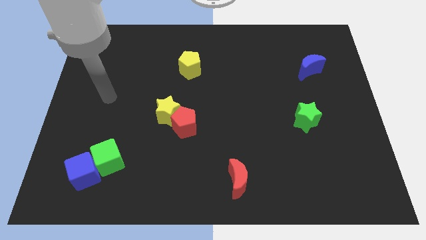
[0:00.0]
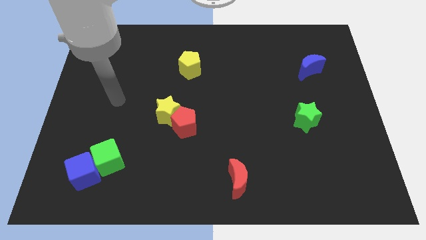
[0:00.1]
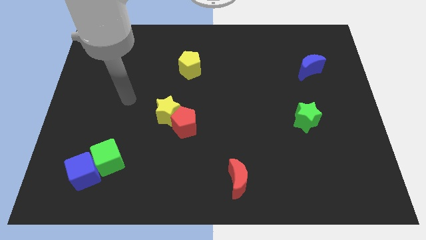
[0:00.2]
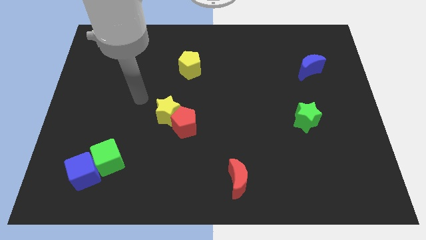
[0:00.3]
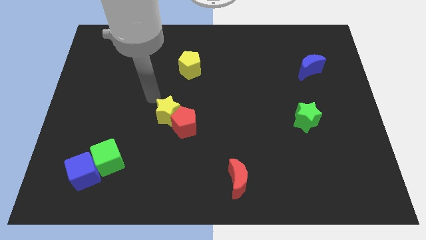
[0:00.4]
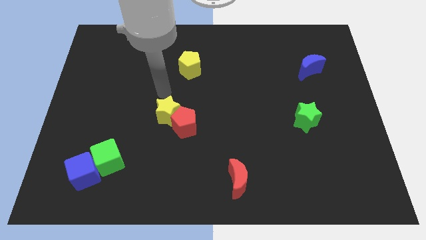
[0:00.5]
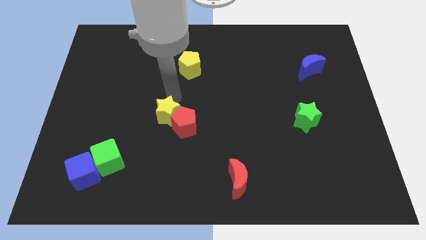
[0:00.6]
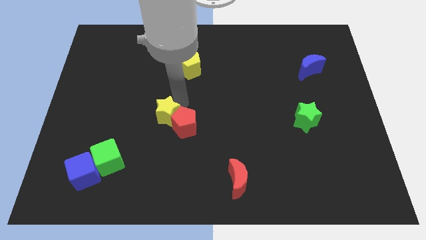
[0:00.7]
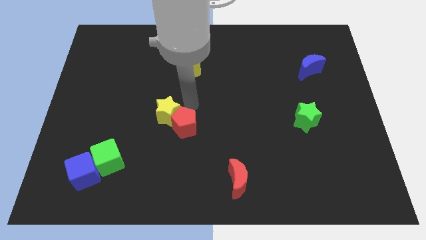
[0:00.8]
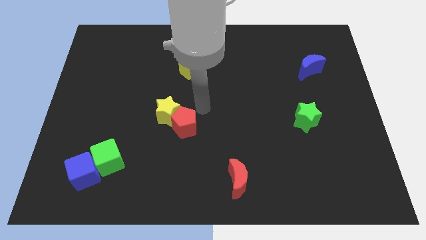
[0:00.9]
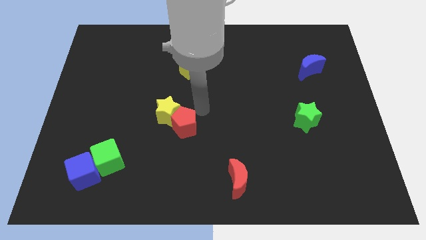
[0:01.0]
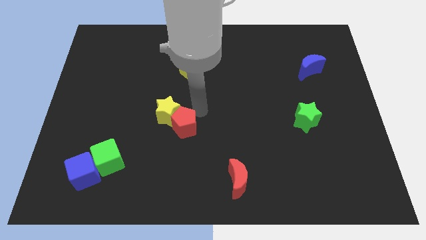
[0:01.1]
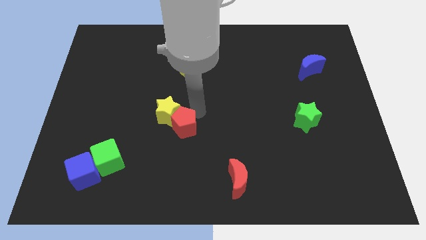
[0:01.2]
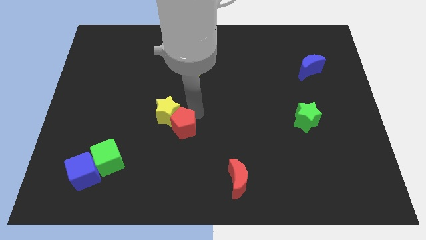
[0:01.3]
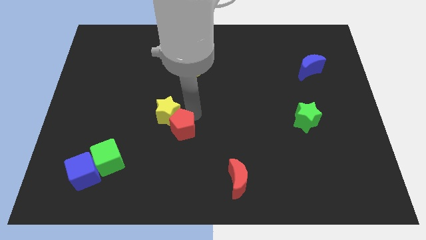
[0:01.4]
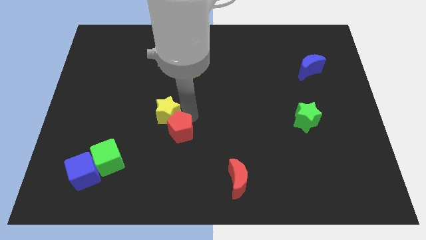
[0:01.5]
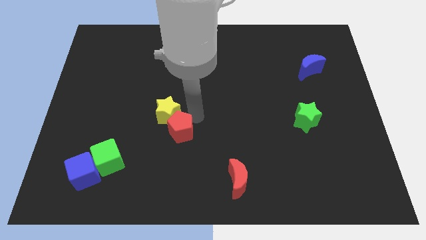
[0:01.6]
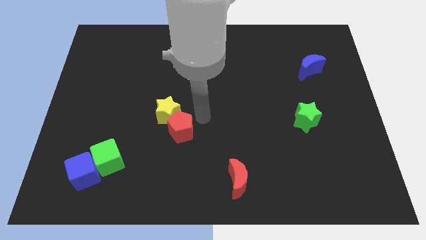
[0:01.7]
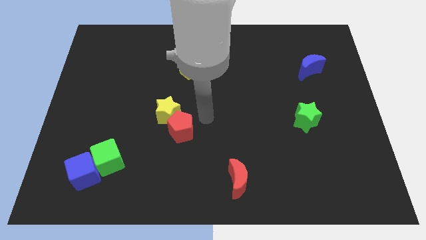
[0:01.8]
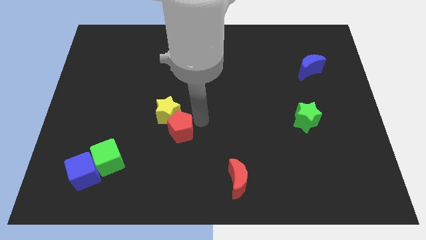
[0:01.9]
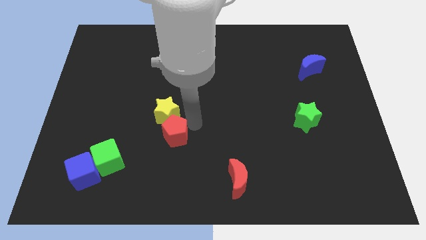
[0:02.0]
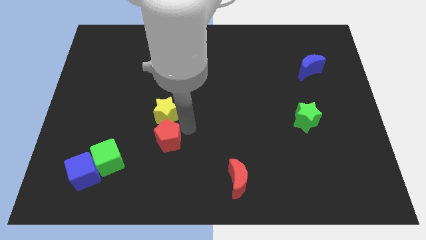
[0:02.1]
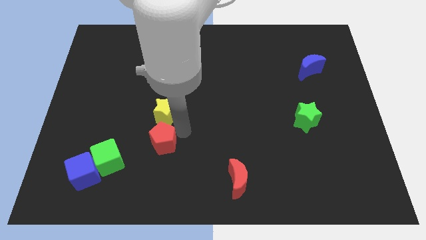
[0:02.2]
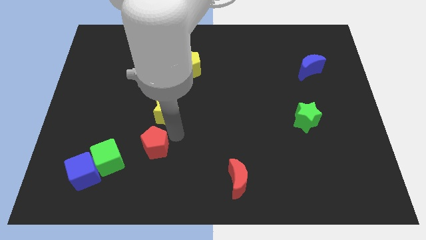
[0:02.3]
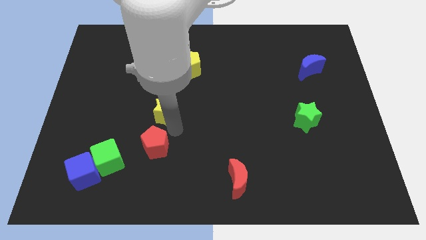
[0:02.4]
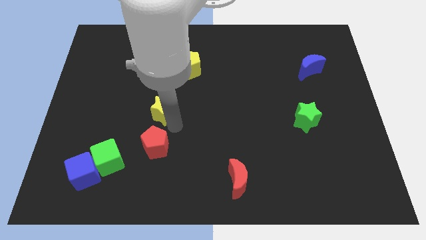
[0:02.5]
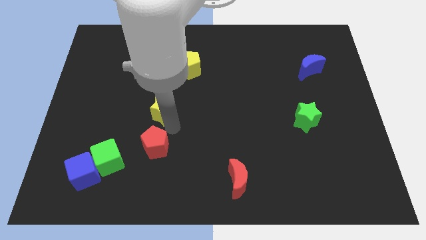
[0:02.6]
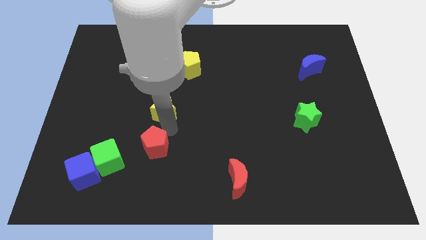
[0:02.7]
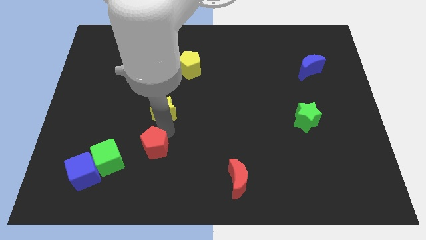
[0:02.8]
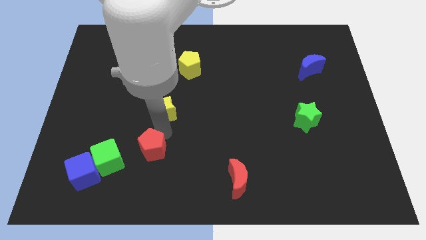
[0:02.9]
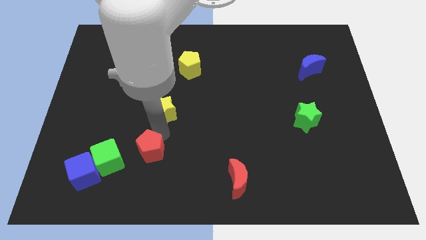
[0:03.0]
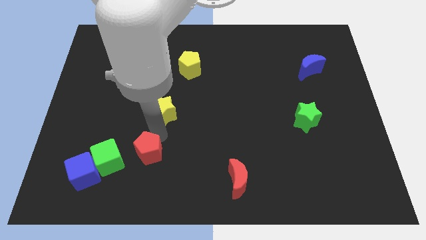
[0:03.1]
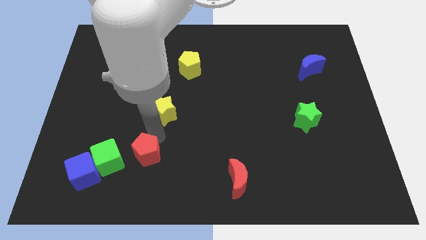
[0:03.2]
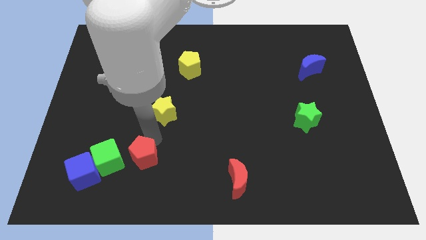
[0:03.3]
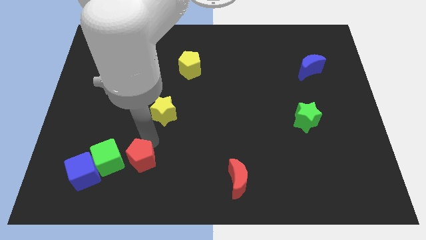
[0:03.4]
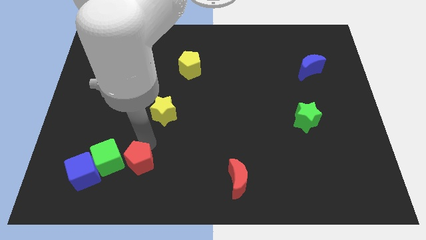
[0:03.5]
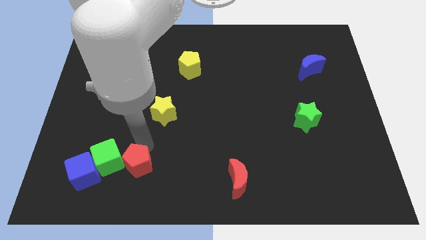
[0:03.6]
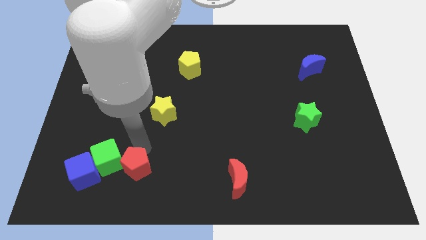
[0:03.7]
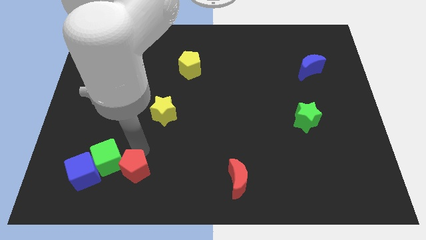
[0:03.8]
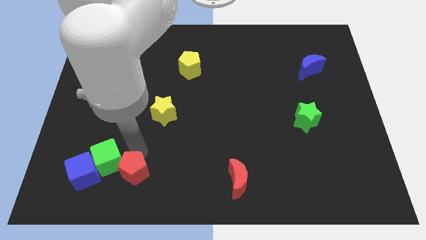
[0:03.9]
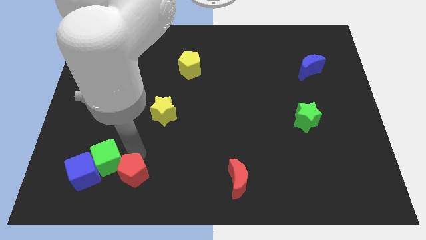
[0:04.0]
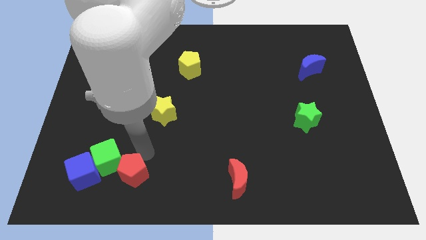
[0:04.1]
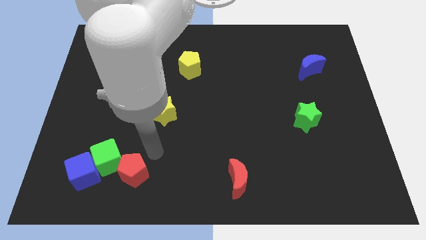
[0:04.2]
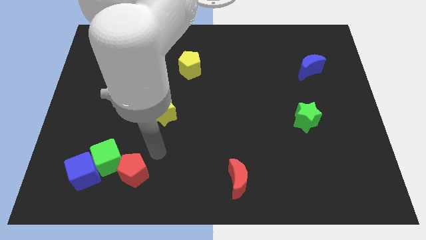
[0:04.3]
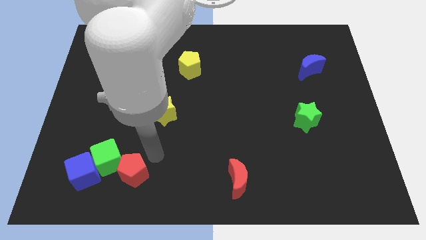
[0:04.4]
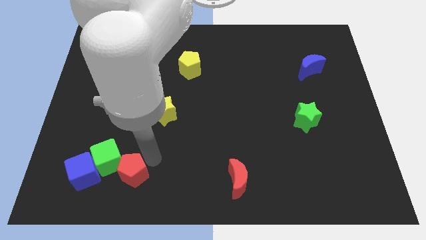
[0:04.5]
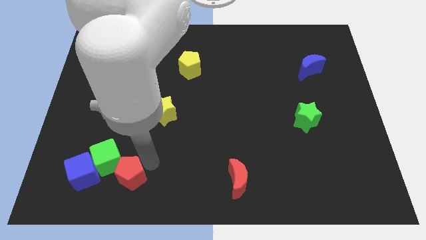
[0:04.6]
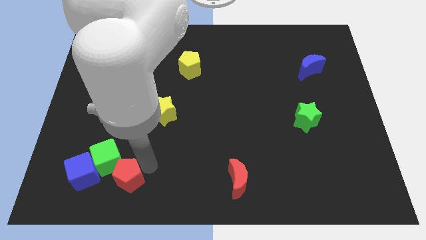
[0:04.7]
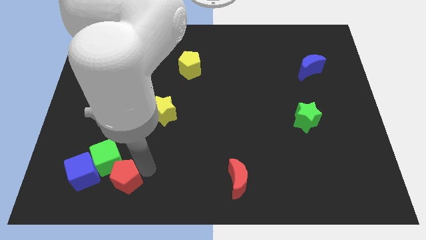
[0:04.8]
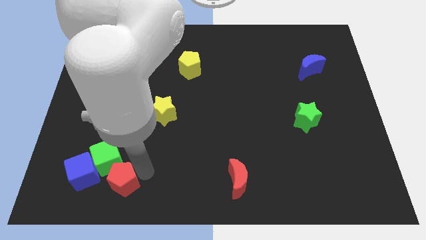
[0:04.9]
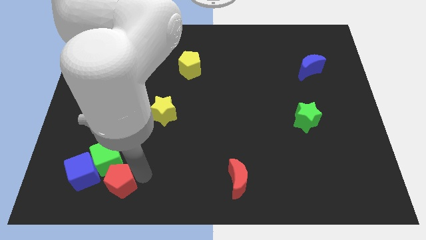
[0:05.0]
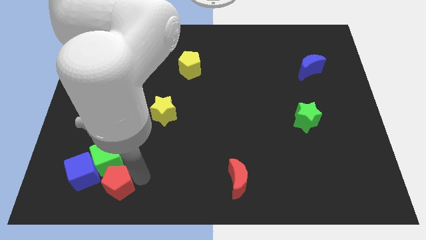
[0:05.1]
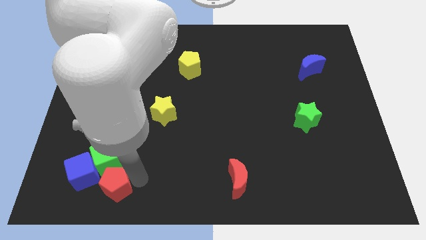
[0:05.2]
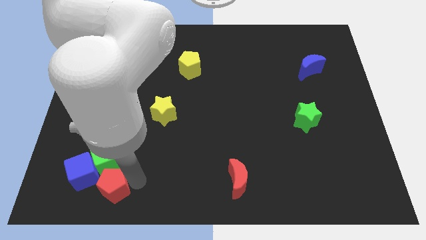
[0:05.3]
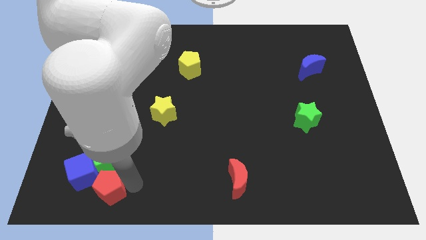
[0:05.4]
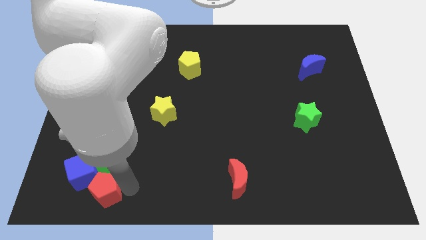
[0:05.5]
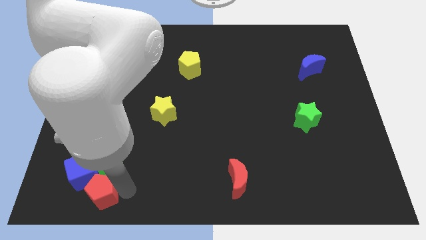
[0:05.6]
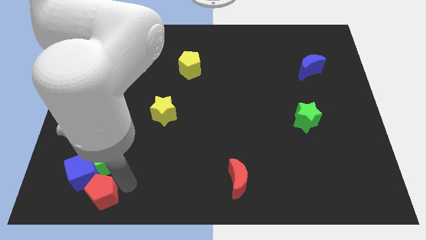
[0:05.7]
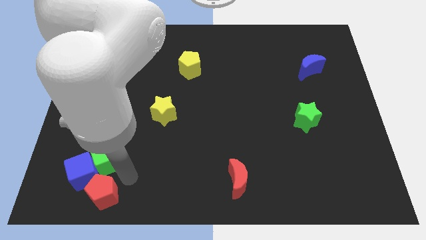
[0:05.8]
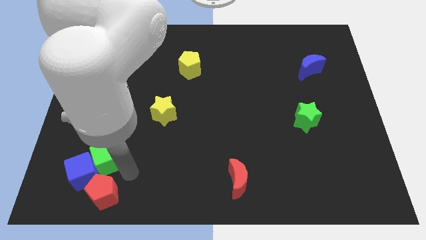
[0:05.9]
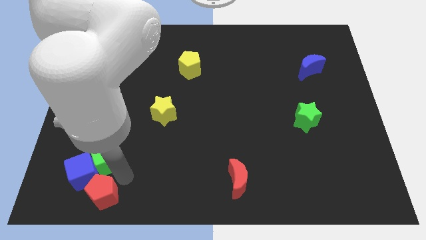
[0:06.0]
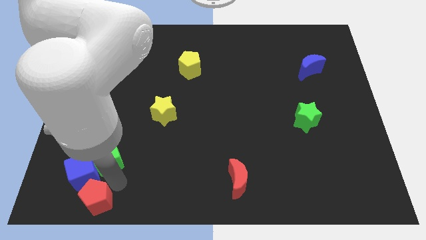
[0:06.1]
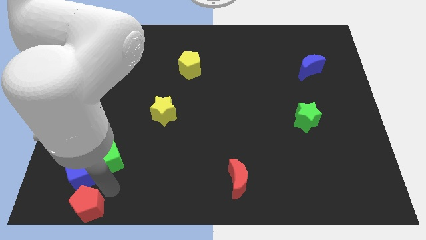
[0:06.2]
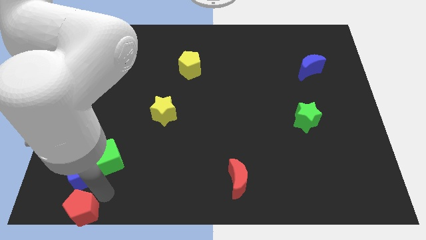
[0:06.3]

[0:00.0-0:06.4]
move the red pentagon to the bottom left

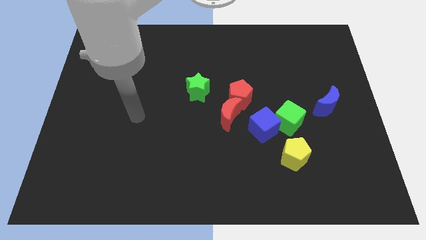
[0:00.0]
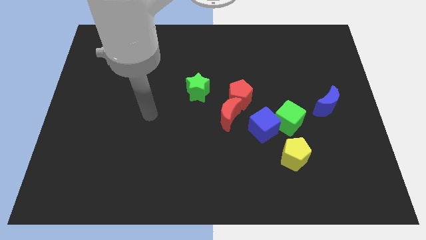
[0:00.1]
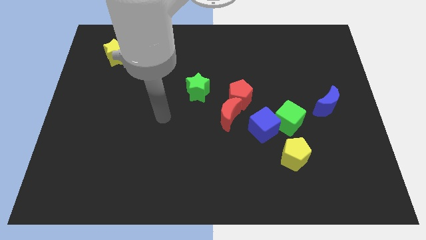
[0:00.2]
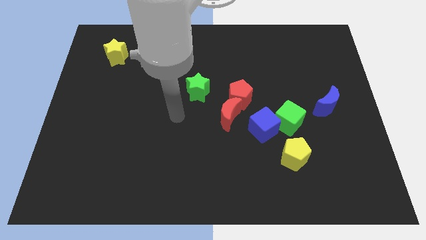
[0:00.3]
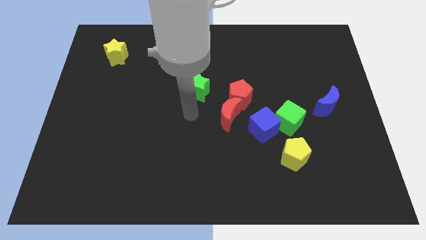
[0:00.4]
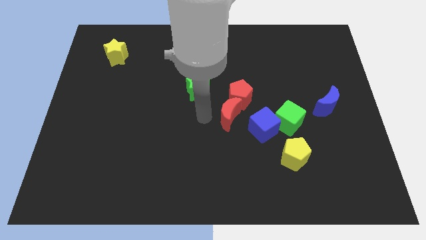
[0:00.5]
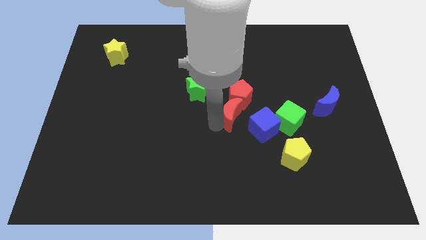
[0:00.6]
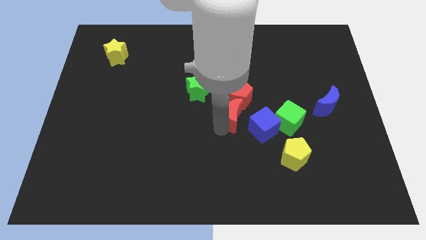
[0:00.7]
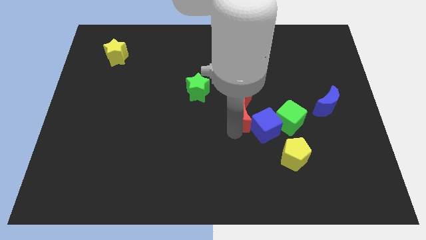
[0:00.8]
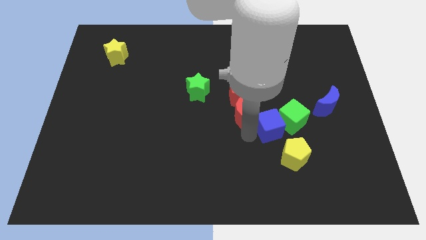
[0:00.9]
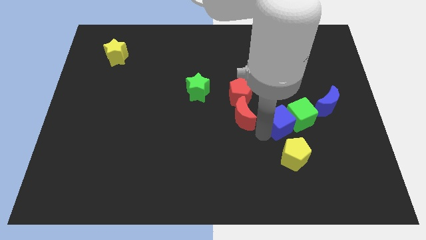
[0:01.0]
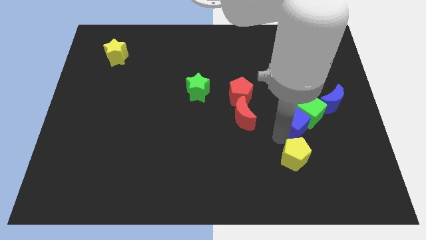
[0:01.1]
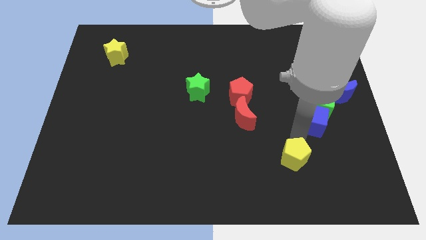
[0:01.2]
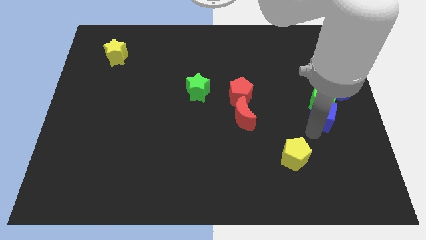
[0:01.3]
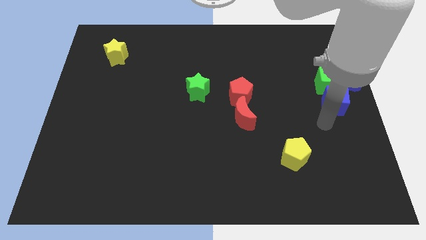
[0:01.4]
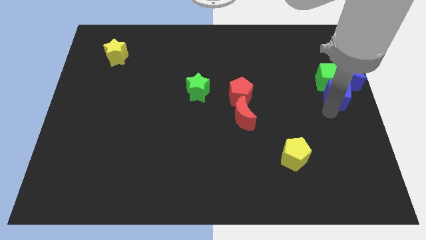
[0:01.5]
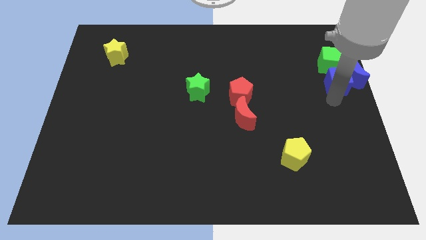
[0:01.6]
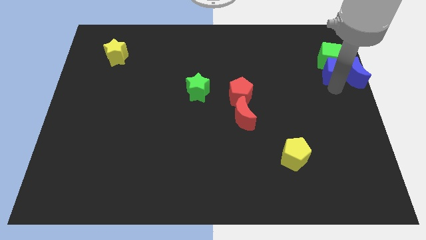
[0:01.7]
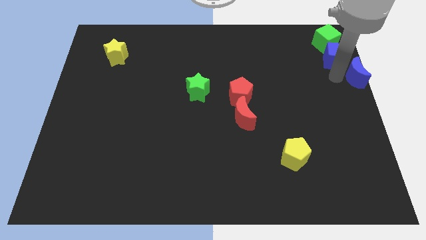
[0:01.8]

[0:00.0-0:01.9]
move the green cube to the top right
